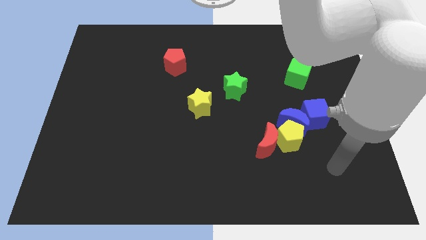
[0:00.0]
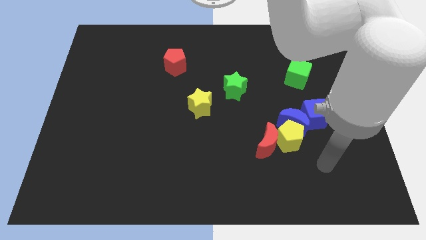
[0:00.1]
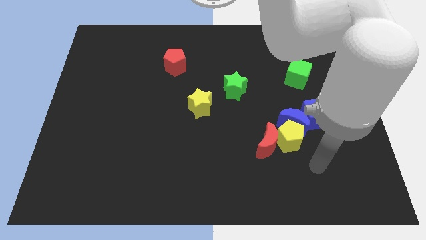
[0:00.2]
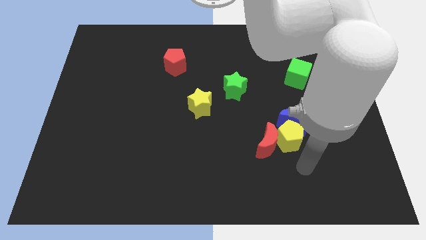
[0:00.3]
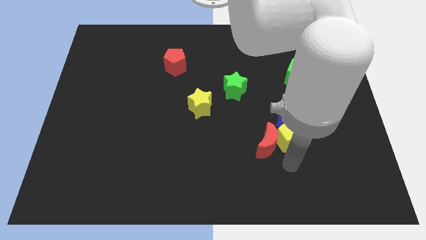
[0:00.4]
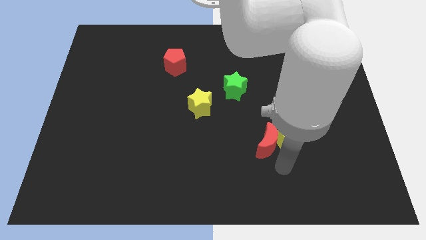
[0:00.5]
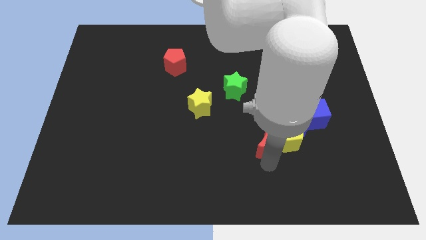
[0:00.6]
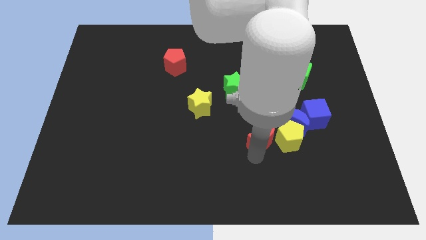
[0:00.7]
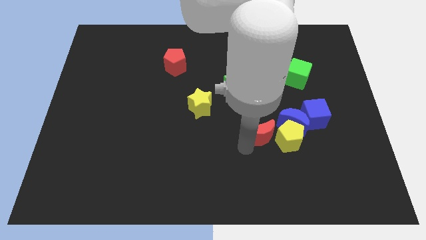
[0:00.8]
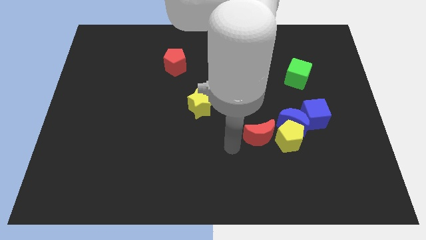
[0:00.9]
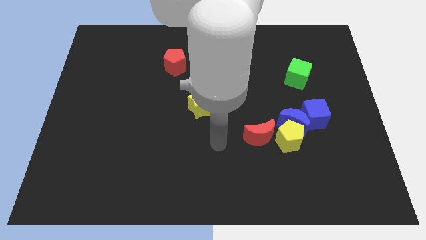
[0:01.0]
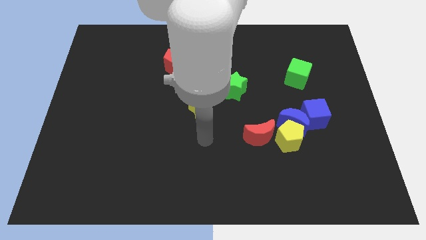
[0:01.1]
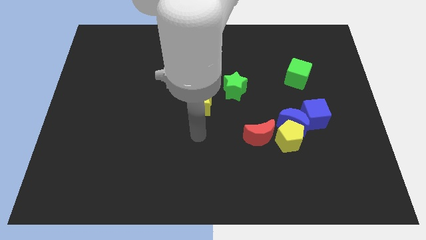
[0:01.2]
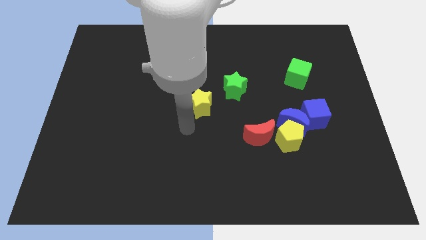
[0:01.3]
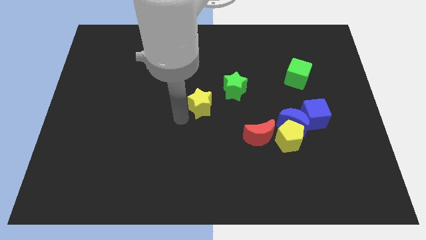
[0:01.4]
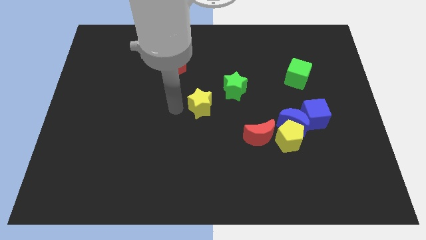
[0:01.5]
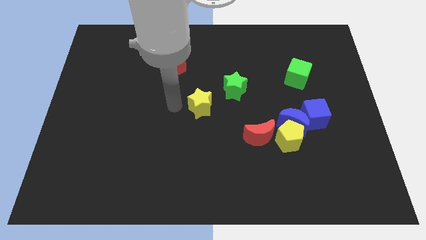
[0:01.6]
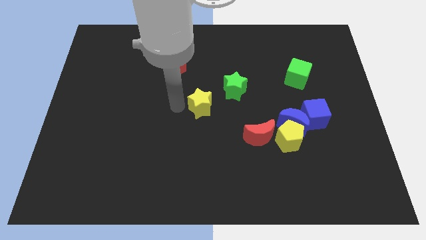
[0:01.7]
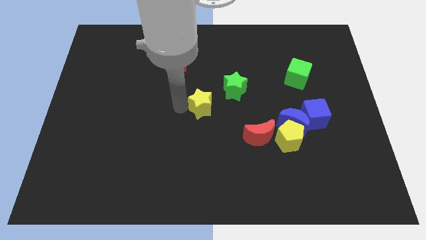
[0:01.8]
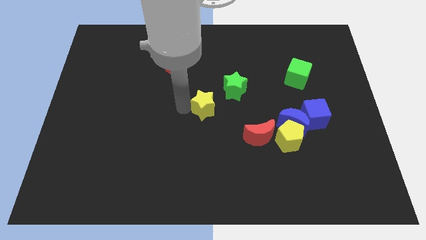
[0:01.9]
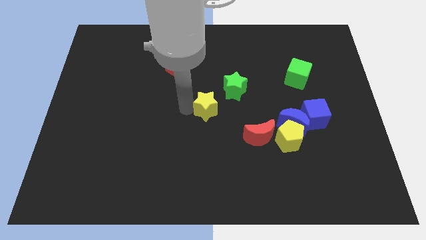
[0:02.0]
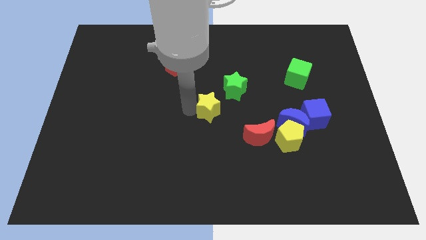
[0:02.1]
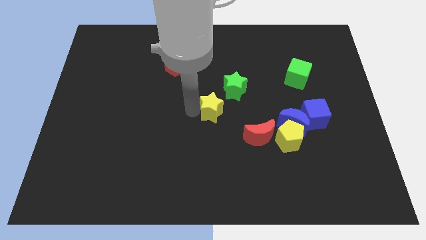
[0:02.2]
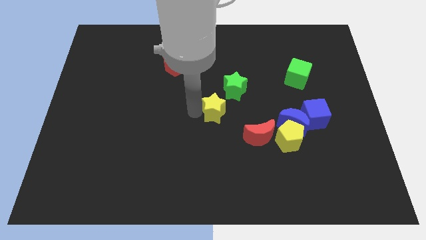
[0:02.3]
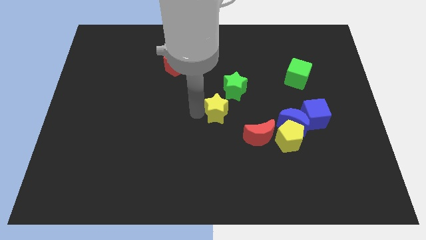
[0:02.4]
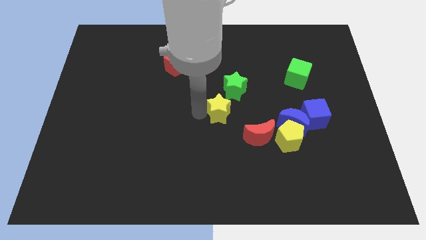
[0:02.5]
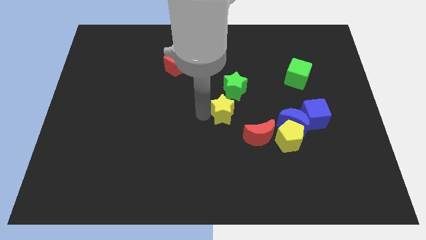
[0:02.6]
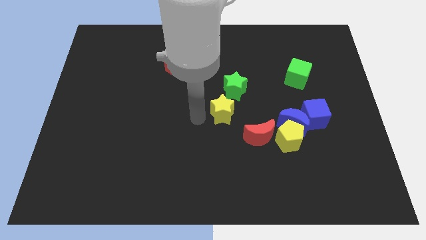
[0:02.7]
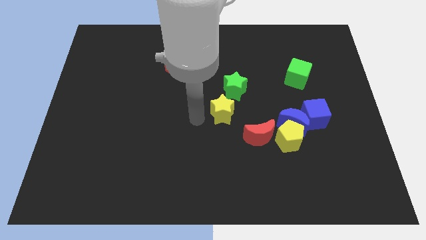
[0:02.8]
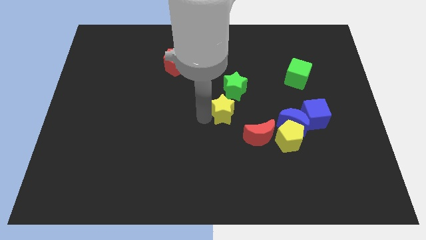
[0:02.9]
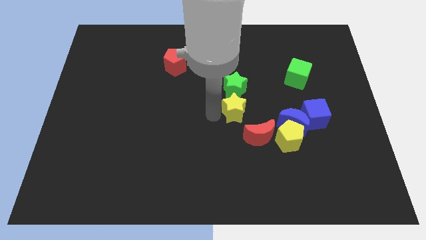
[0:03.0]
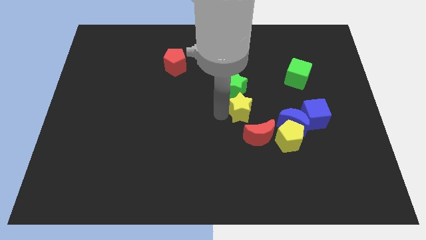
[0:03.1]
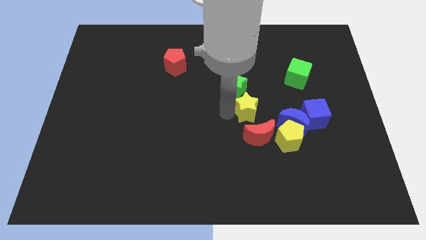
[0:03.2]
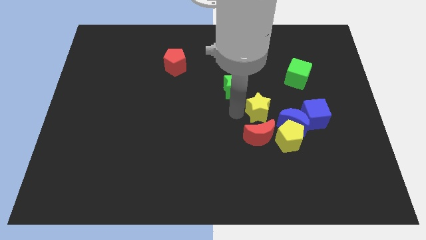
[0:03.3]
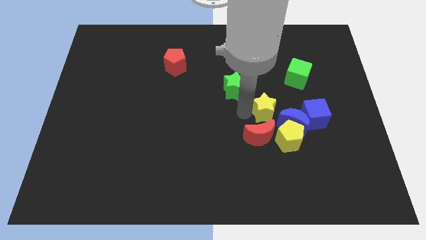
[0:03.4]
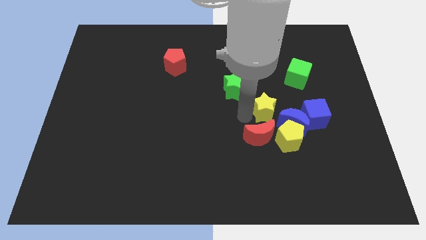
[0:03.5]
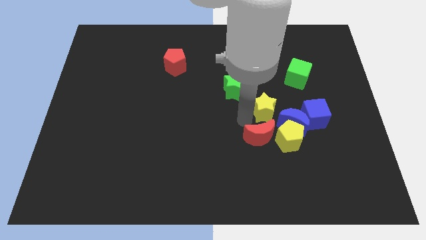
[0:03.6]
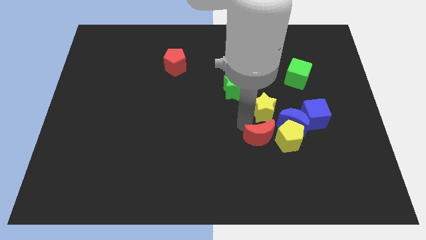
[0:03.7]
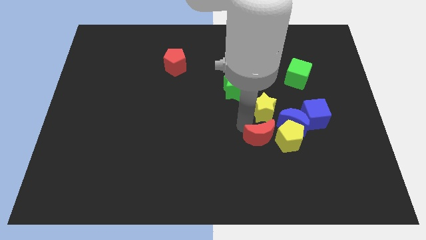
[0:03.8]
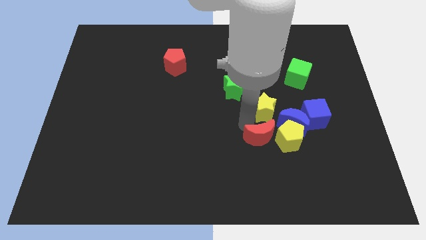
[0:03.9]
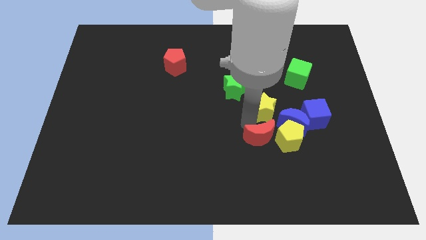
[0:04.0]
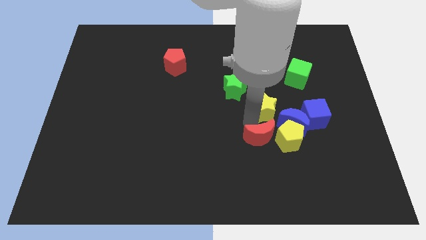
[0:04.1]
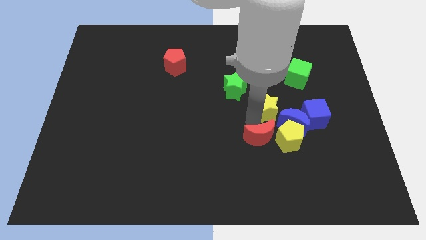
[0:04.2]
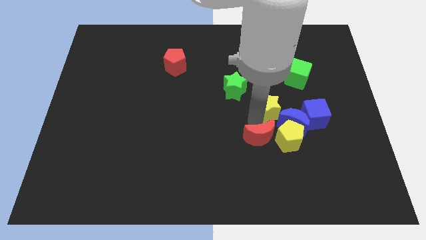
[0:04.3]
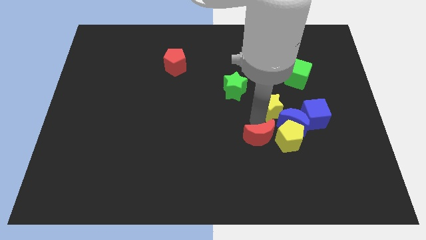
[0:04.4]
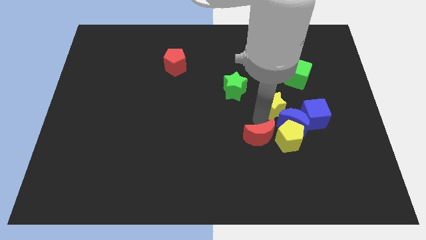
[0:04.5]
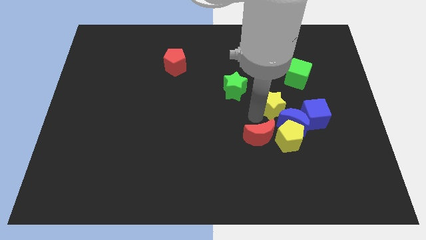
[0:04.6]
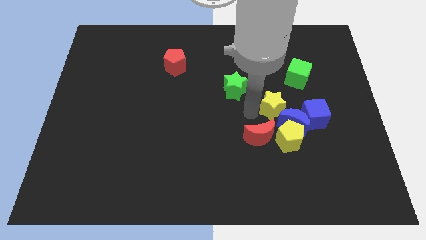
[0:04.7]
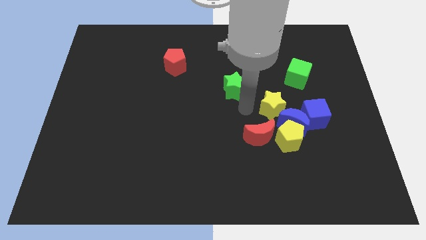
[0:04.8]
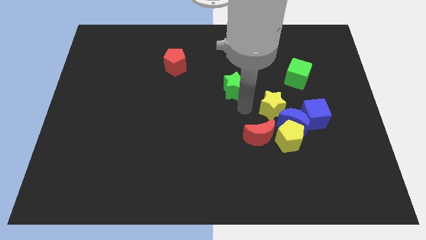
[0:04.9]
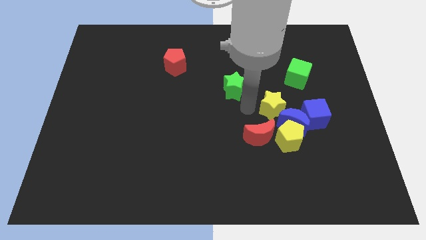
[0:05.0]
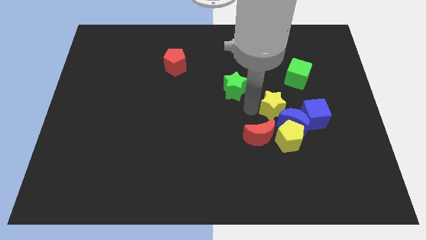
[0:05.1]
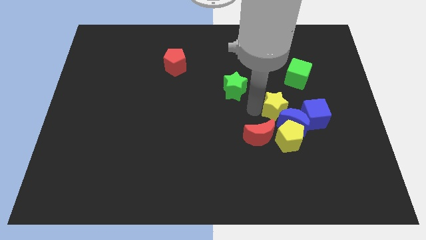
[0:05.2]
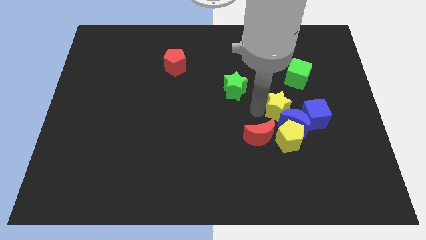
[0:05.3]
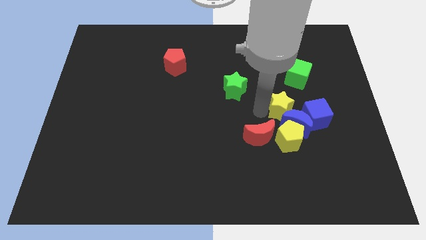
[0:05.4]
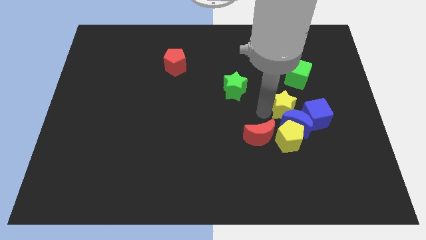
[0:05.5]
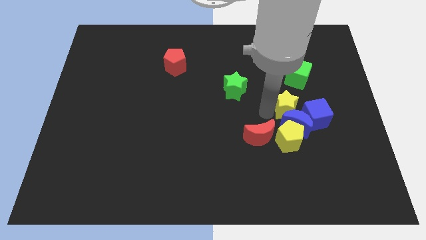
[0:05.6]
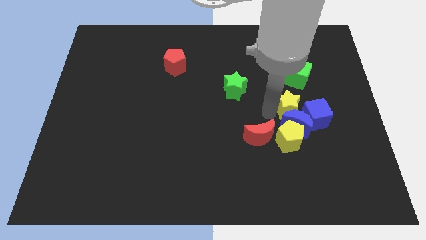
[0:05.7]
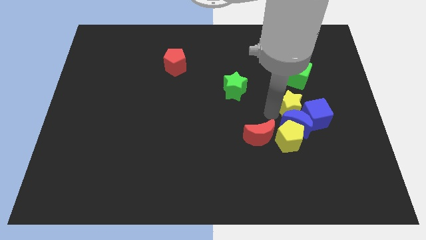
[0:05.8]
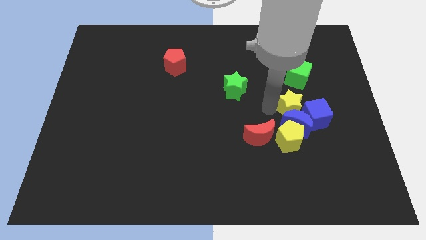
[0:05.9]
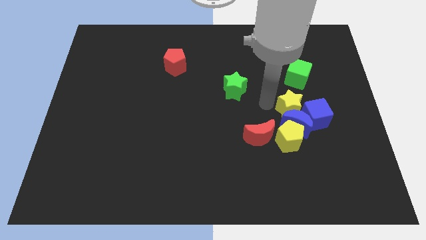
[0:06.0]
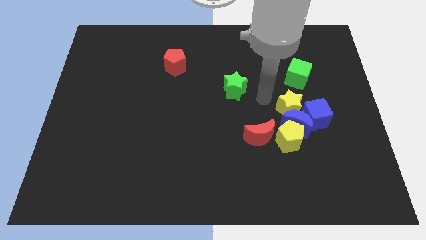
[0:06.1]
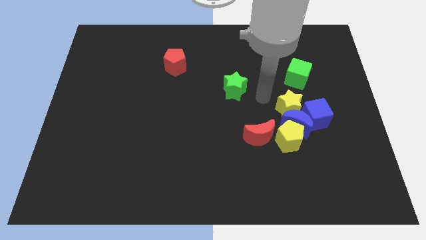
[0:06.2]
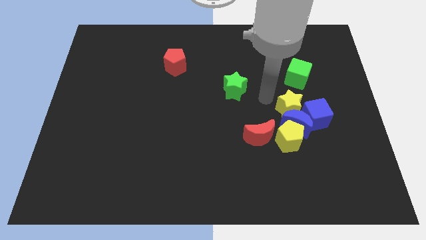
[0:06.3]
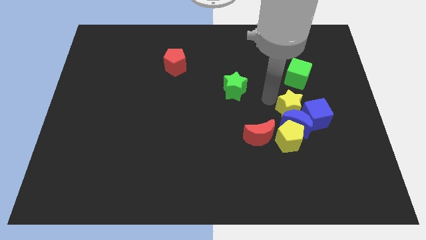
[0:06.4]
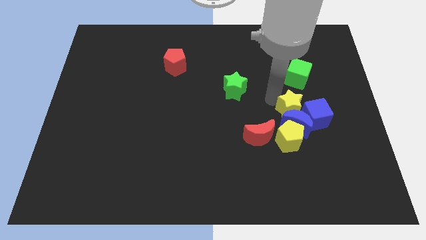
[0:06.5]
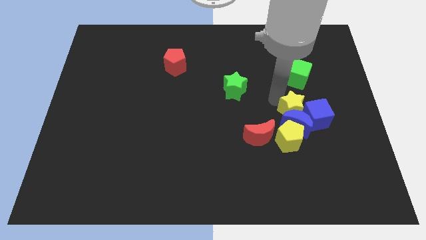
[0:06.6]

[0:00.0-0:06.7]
push the yellow star next to the blue cube

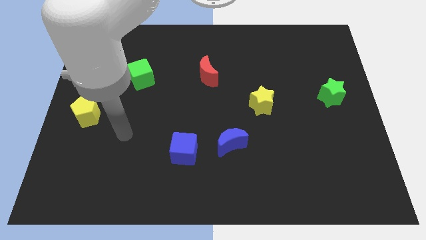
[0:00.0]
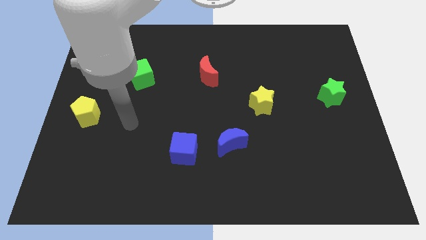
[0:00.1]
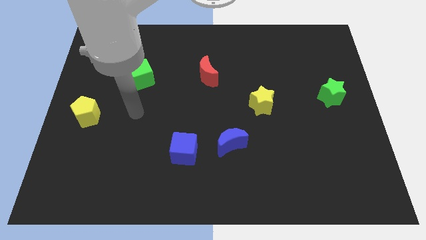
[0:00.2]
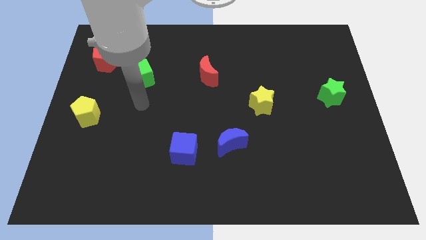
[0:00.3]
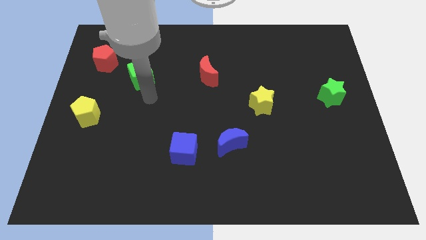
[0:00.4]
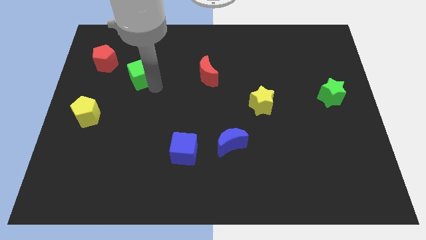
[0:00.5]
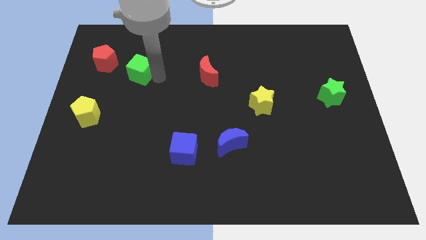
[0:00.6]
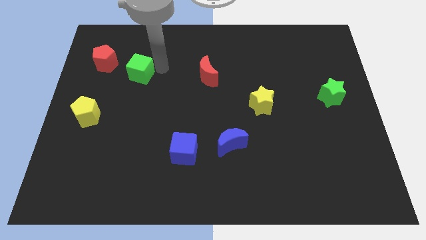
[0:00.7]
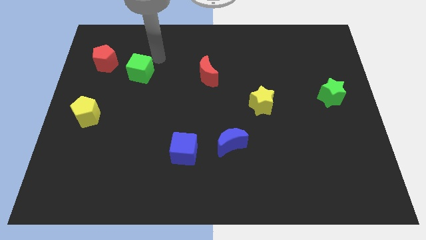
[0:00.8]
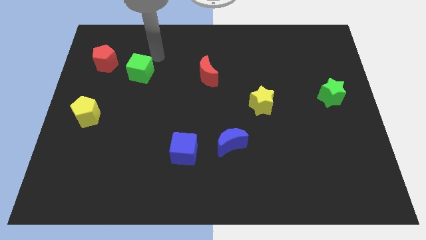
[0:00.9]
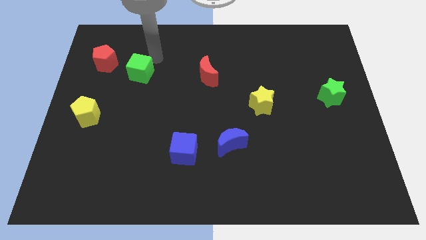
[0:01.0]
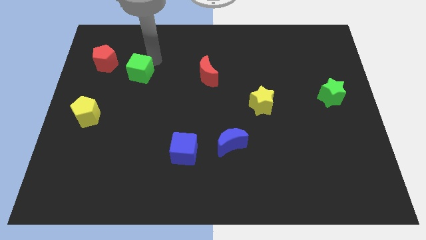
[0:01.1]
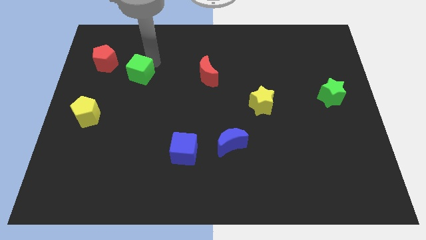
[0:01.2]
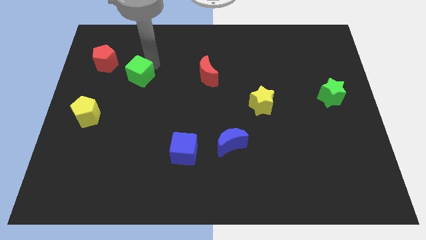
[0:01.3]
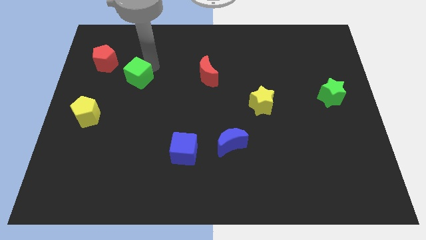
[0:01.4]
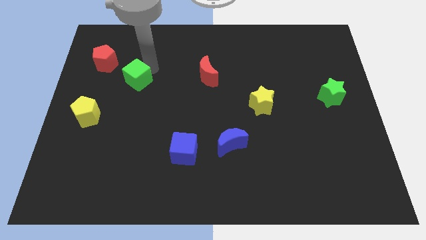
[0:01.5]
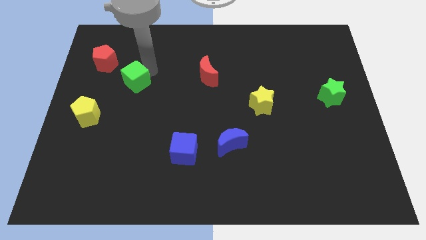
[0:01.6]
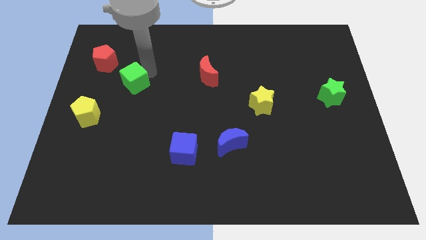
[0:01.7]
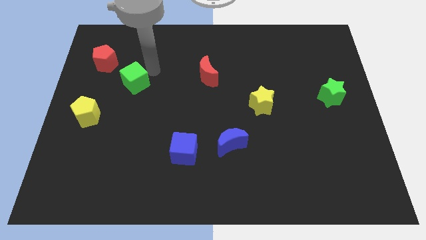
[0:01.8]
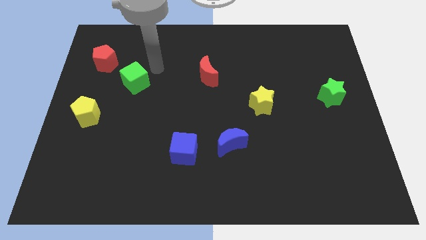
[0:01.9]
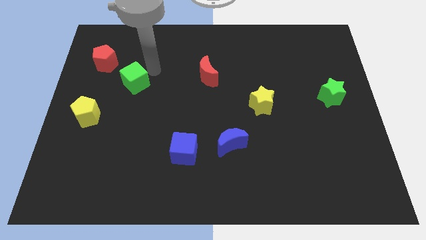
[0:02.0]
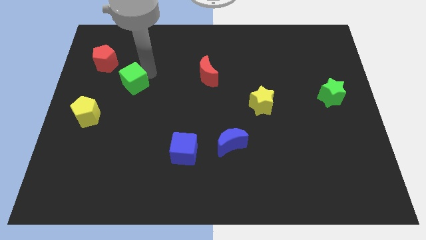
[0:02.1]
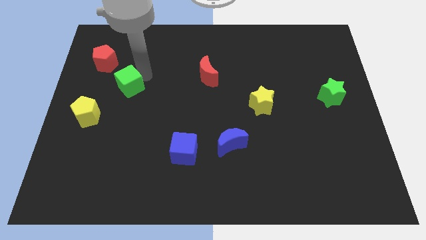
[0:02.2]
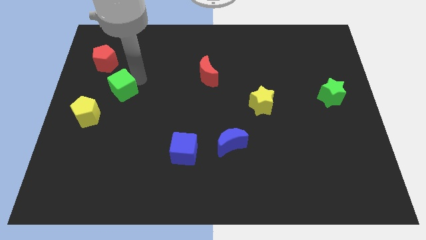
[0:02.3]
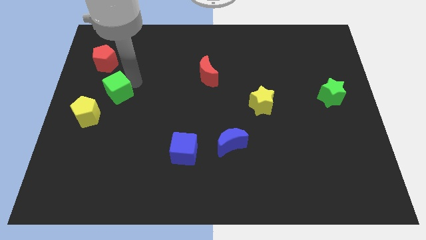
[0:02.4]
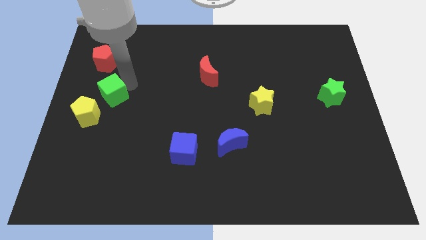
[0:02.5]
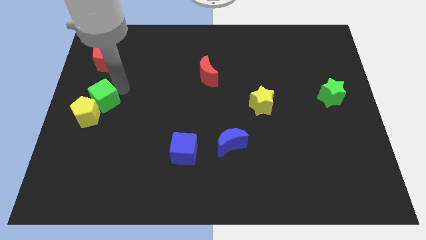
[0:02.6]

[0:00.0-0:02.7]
slide the green cube close to the yellow pentagon
